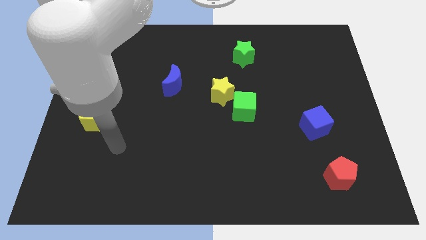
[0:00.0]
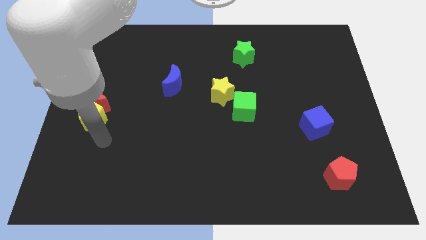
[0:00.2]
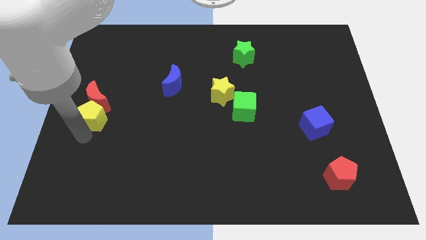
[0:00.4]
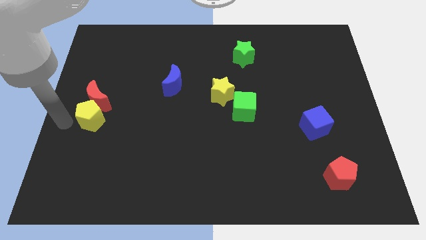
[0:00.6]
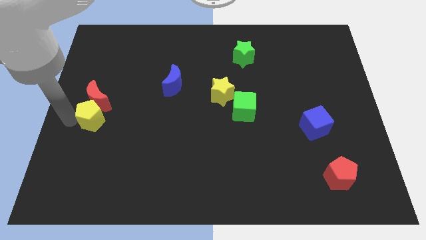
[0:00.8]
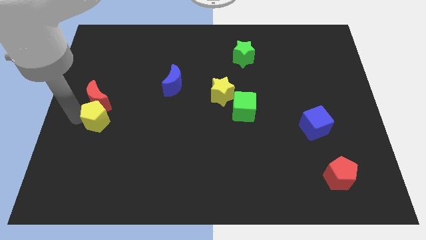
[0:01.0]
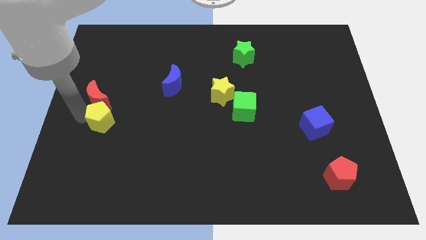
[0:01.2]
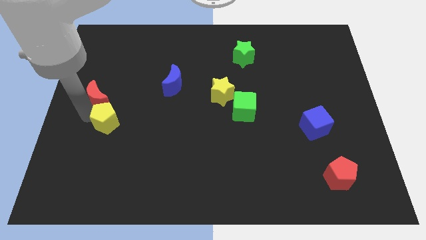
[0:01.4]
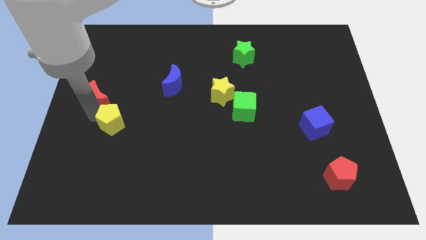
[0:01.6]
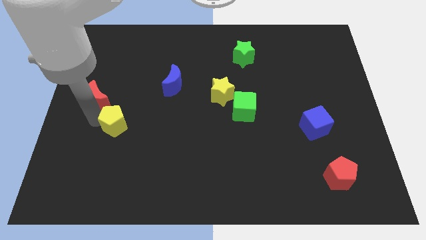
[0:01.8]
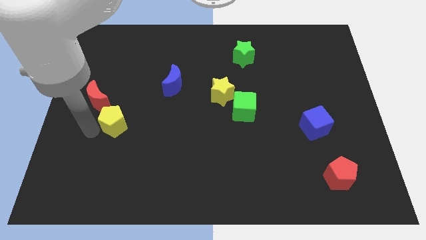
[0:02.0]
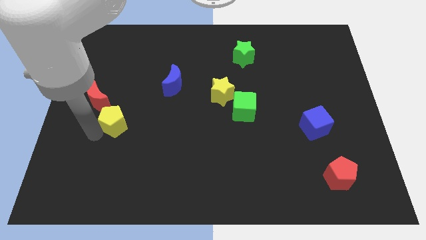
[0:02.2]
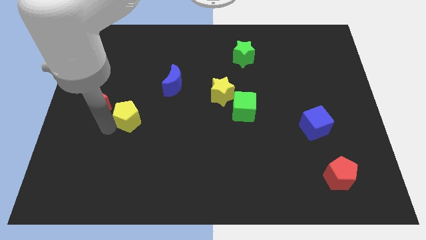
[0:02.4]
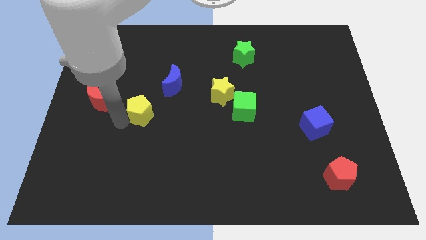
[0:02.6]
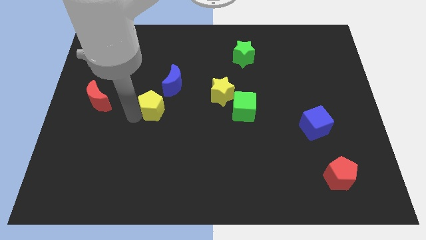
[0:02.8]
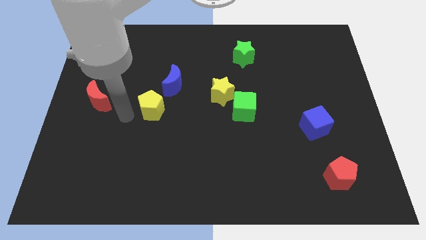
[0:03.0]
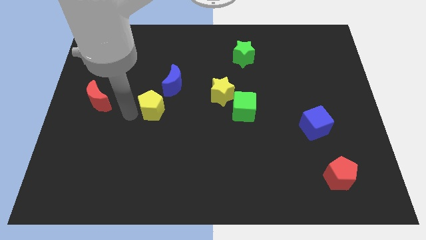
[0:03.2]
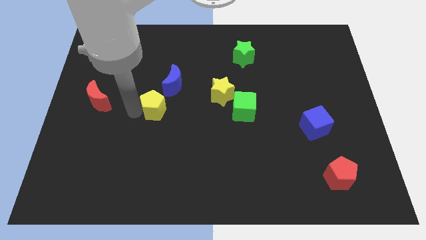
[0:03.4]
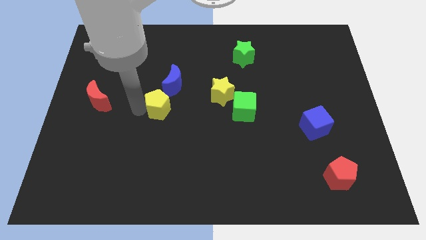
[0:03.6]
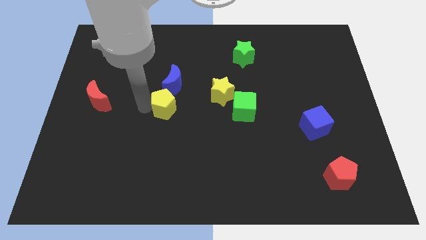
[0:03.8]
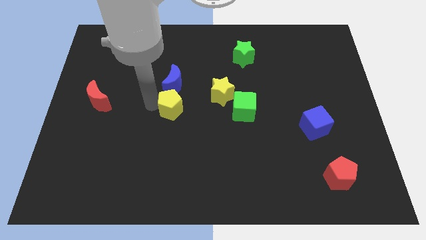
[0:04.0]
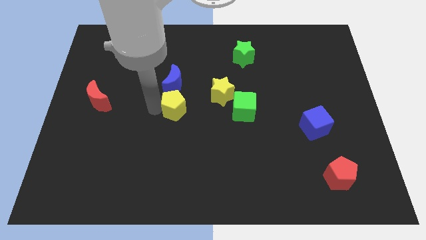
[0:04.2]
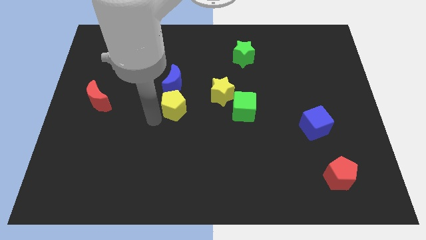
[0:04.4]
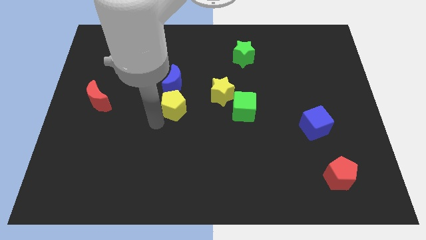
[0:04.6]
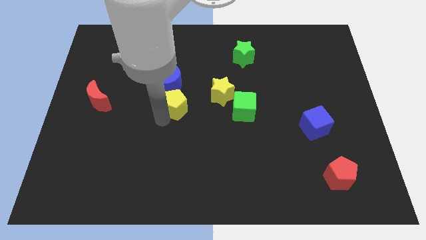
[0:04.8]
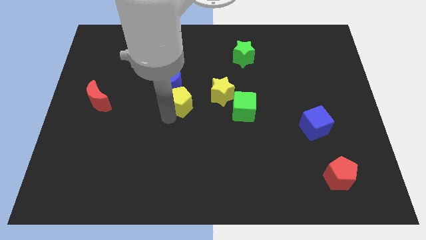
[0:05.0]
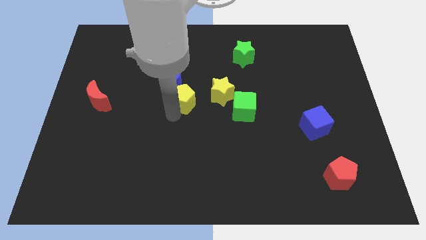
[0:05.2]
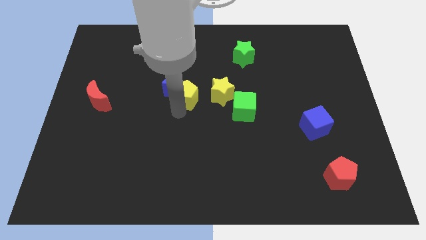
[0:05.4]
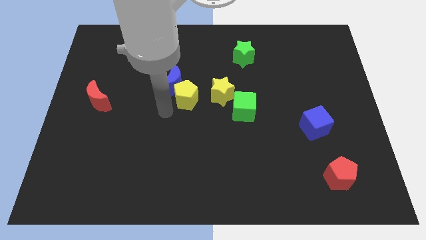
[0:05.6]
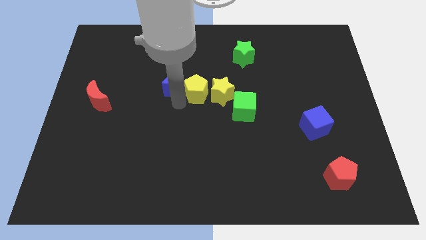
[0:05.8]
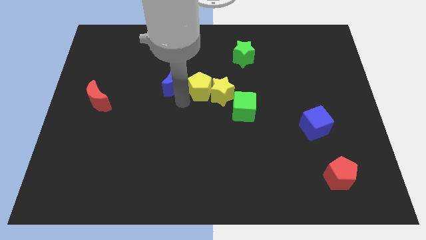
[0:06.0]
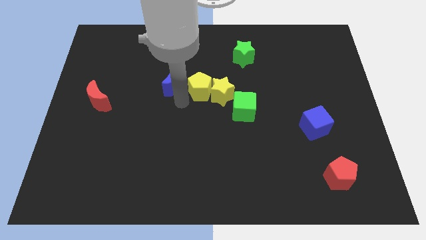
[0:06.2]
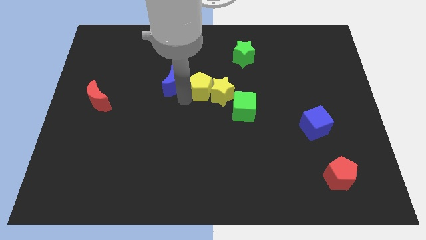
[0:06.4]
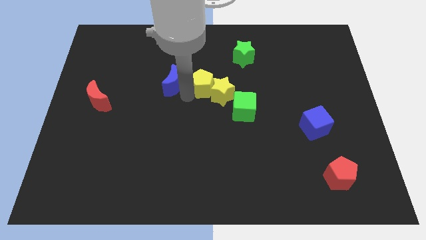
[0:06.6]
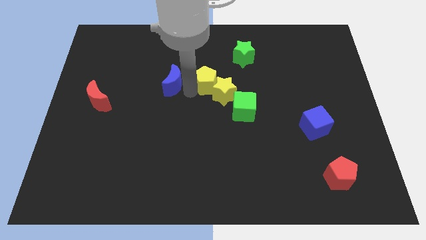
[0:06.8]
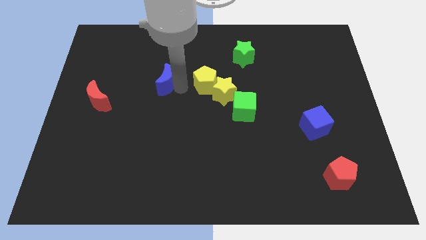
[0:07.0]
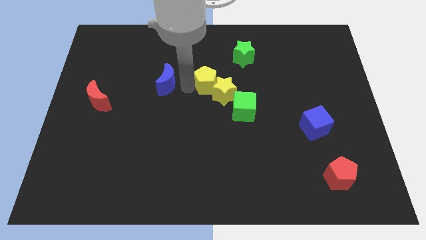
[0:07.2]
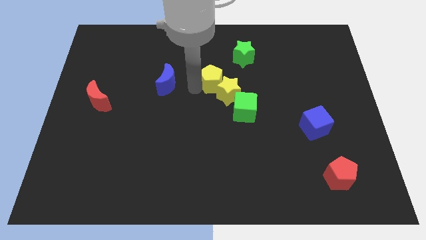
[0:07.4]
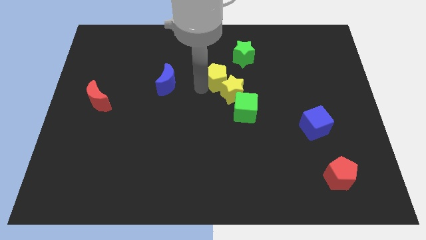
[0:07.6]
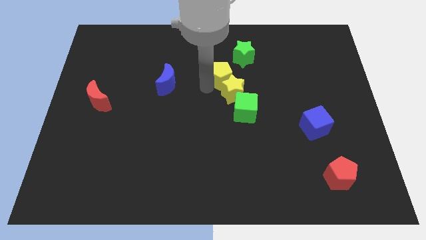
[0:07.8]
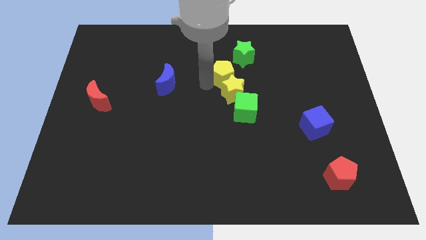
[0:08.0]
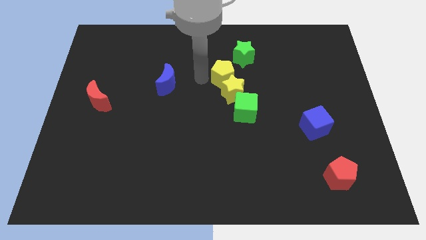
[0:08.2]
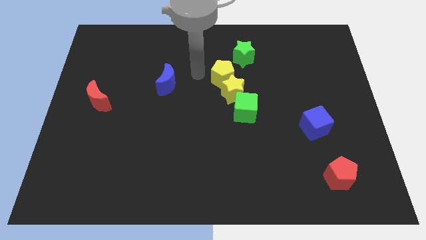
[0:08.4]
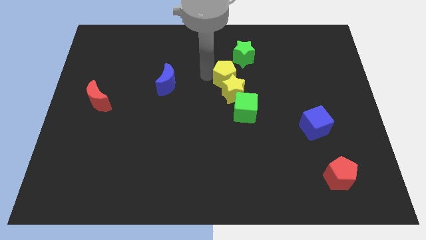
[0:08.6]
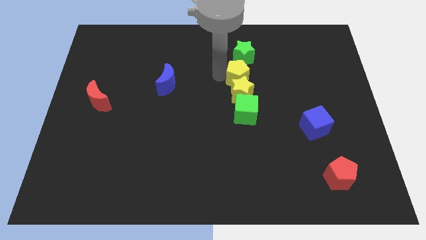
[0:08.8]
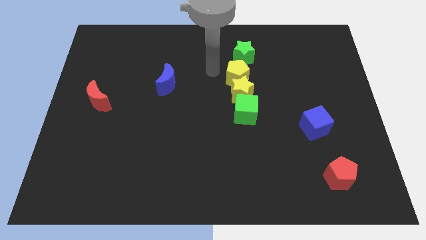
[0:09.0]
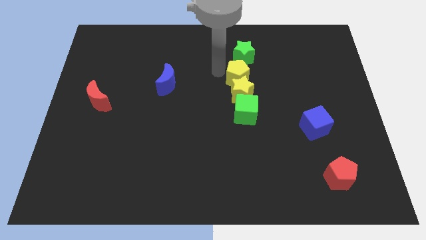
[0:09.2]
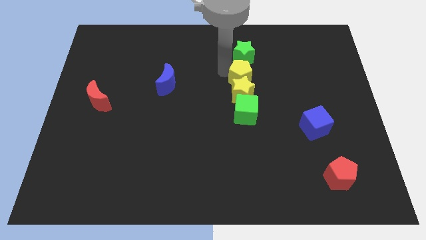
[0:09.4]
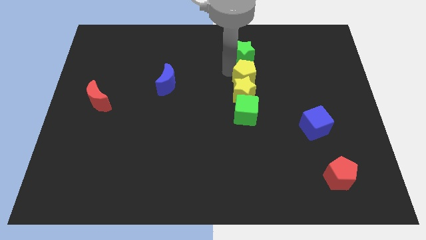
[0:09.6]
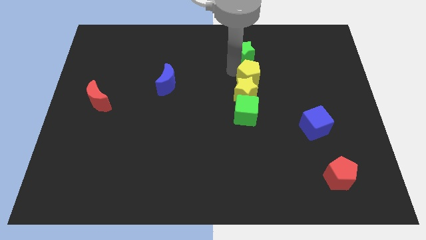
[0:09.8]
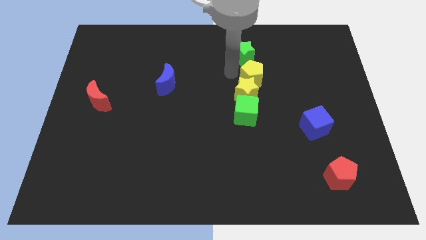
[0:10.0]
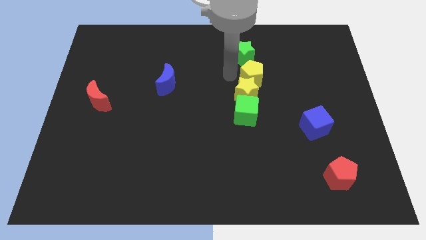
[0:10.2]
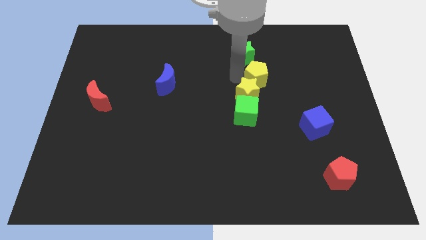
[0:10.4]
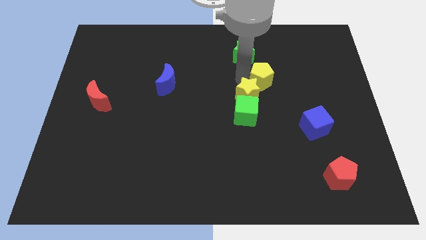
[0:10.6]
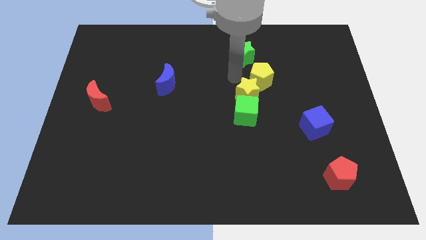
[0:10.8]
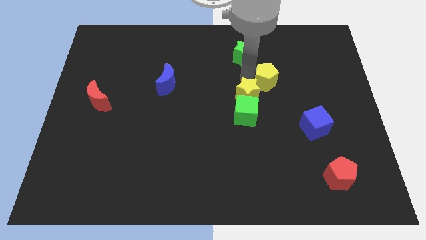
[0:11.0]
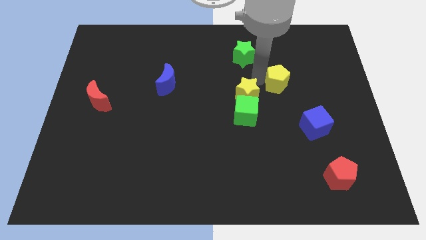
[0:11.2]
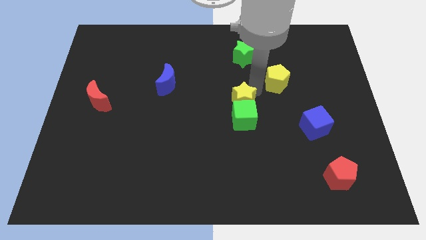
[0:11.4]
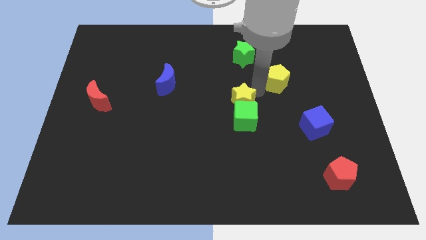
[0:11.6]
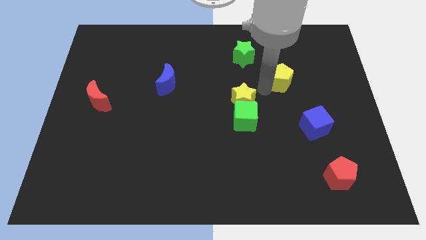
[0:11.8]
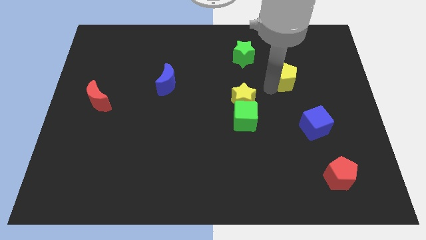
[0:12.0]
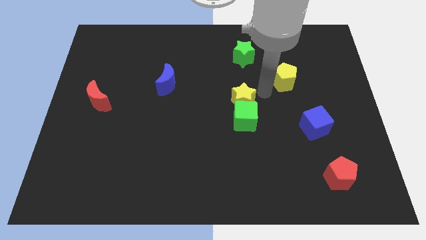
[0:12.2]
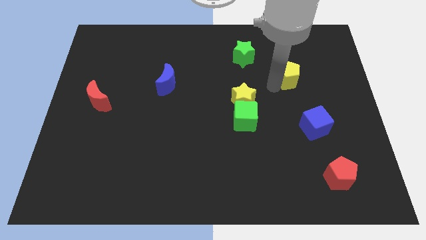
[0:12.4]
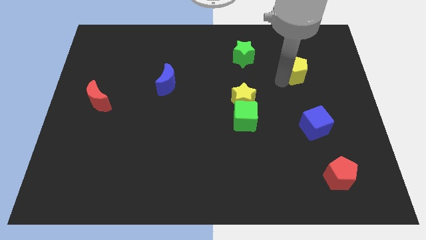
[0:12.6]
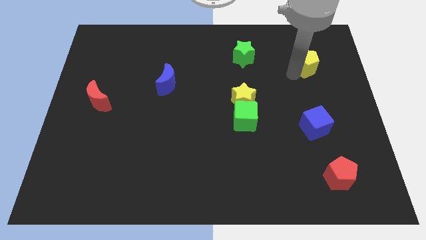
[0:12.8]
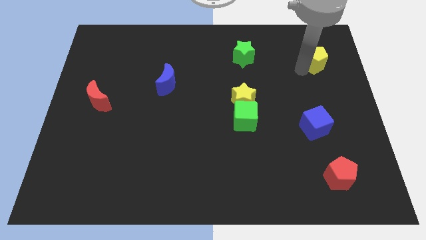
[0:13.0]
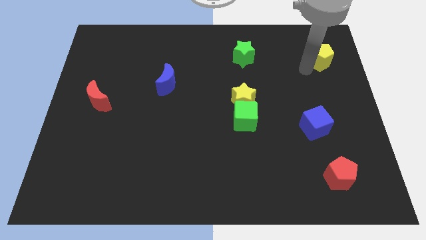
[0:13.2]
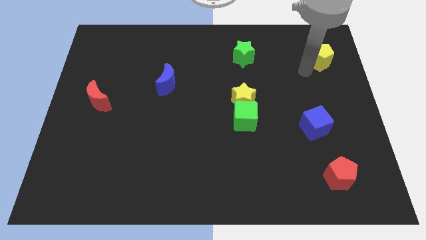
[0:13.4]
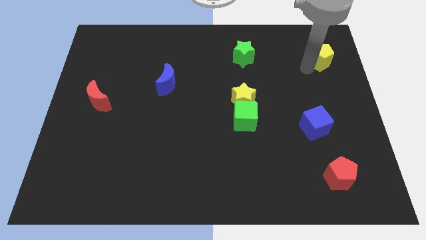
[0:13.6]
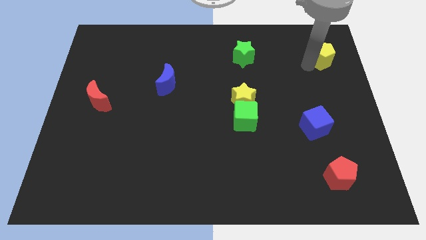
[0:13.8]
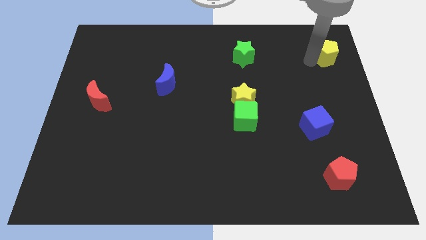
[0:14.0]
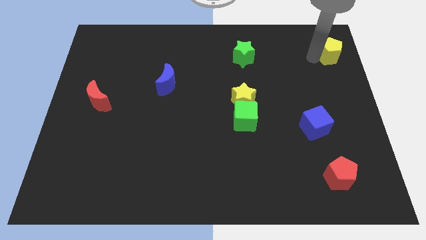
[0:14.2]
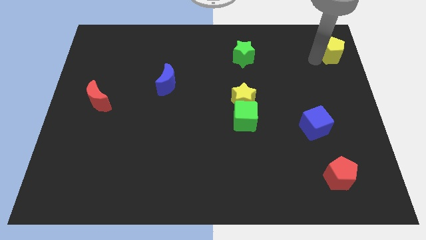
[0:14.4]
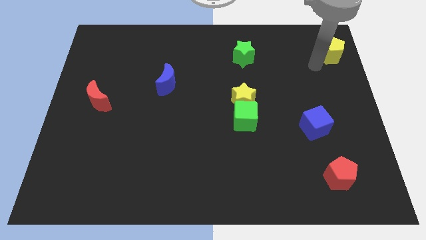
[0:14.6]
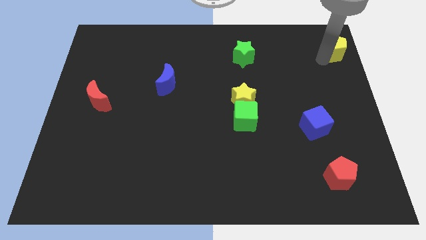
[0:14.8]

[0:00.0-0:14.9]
push the yellow pentagon to the top right corner
